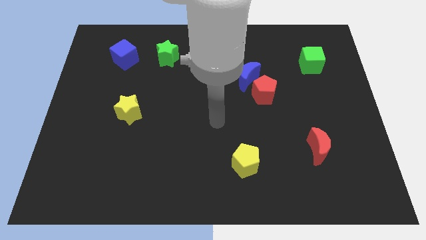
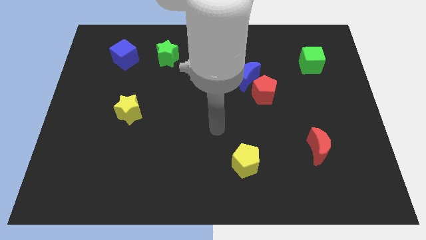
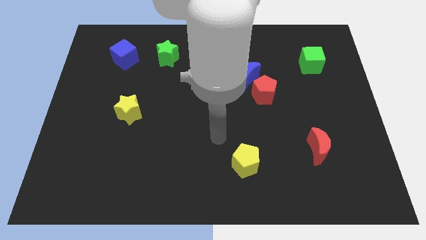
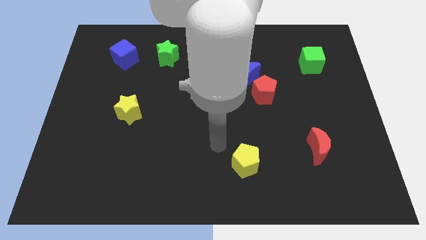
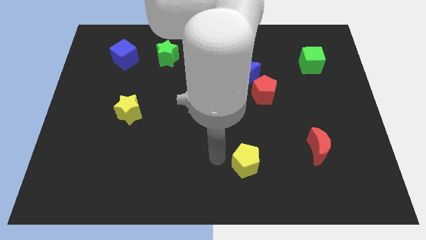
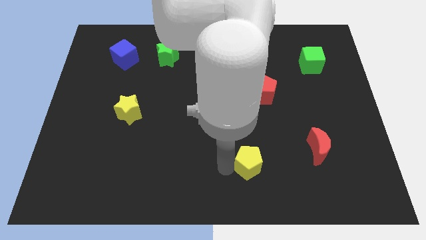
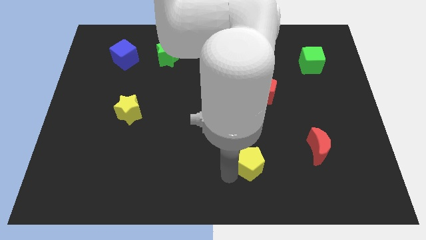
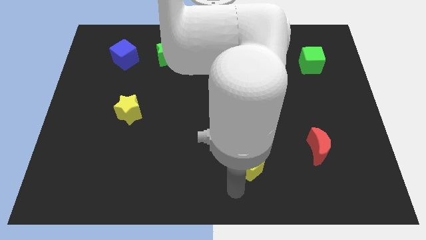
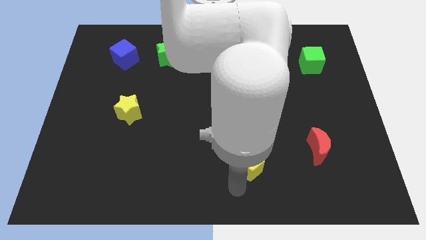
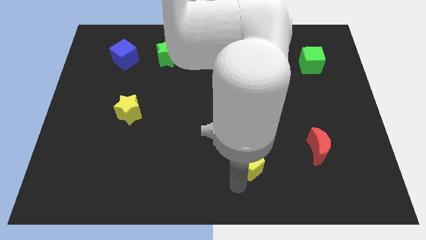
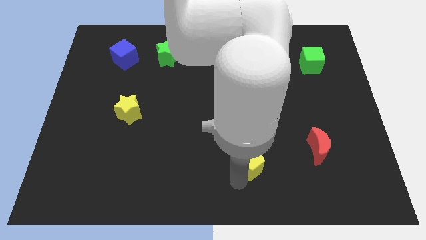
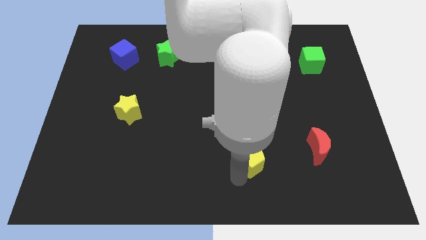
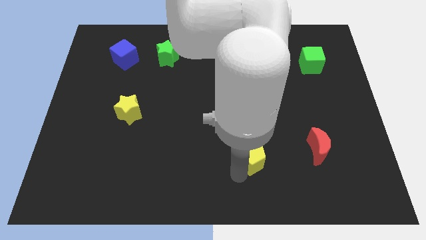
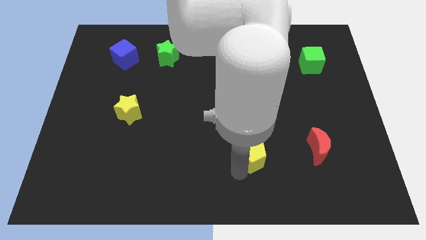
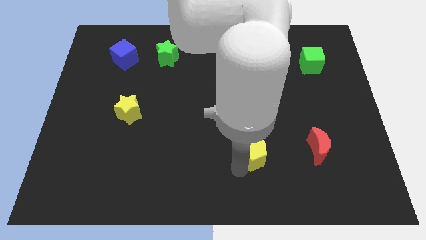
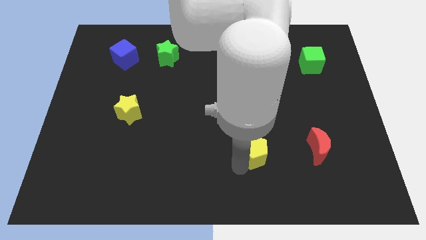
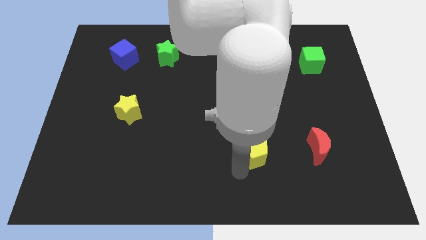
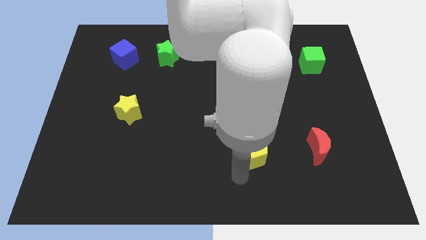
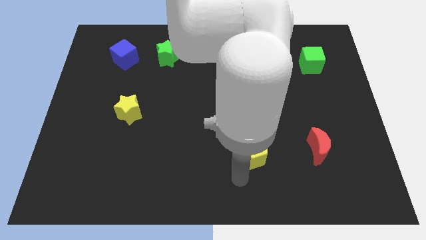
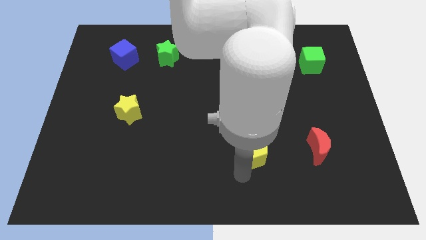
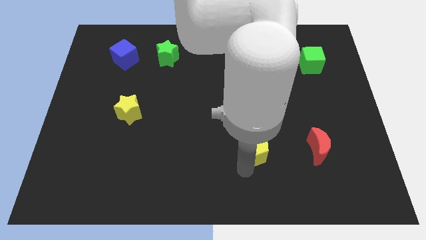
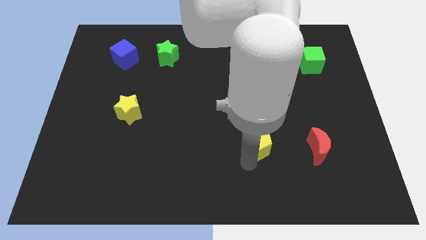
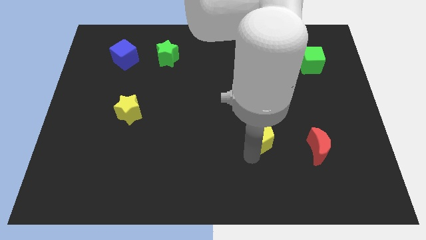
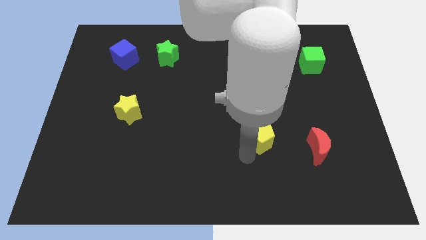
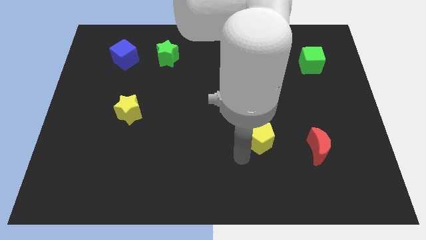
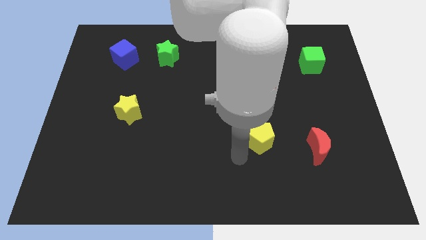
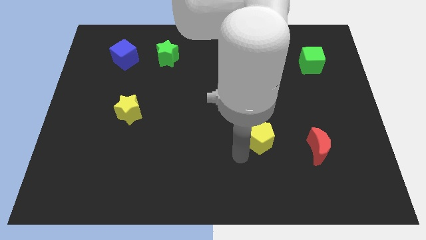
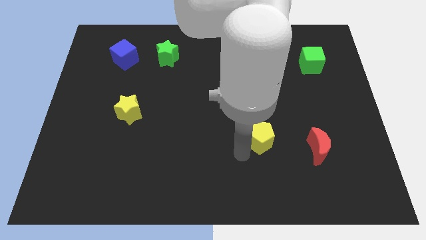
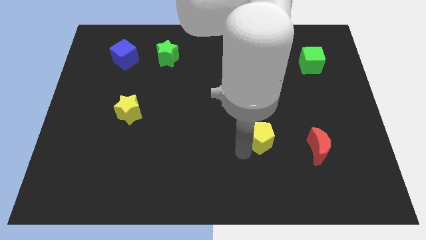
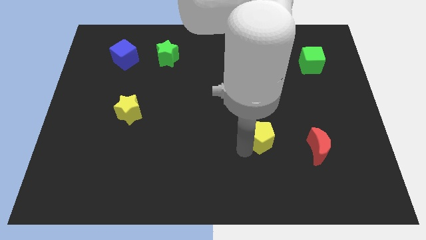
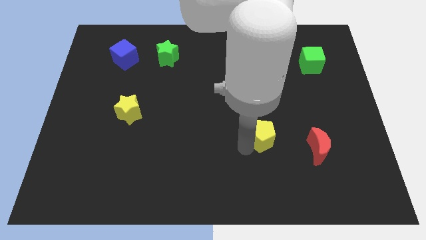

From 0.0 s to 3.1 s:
slide the yellow pentagon a bit diagonally upwards and right

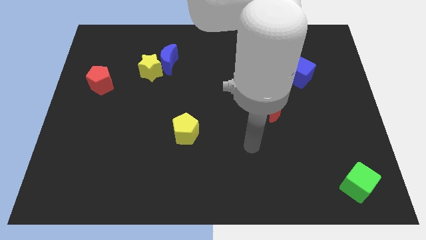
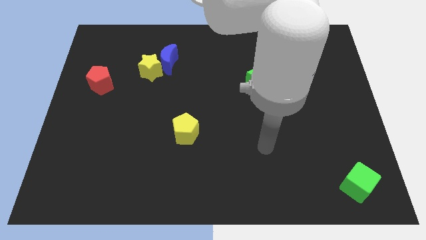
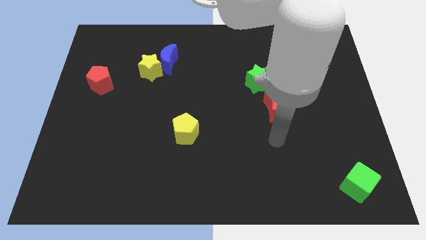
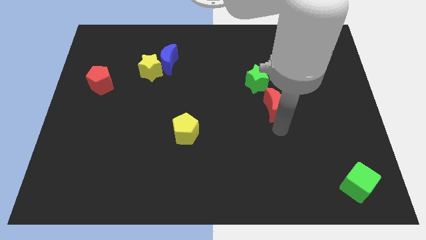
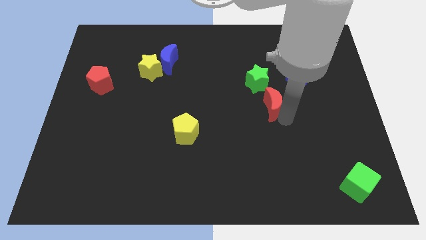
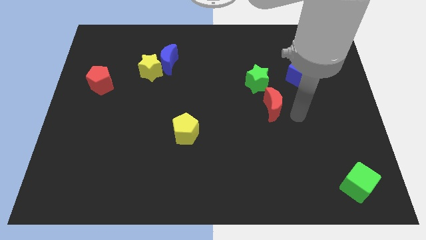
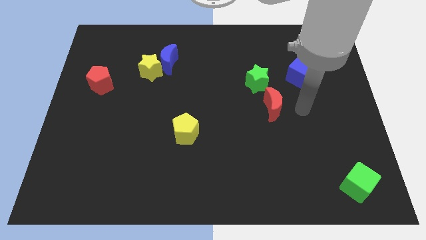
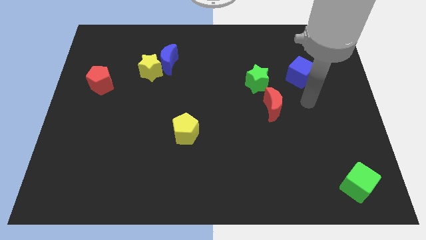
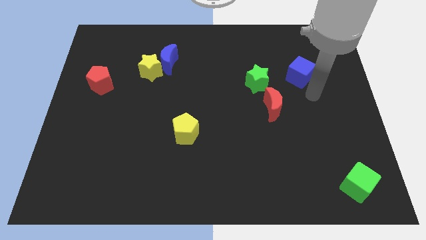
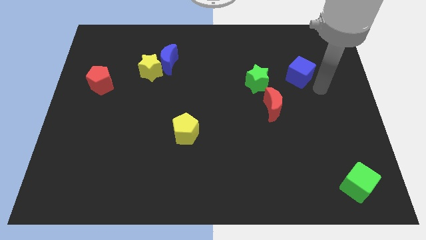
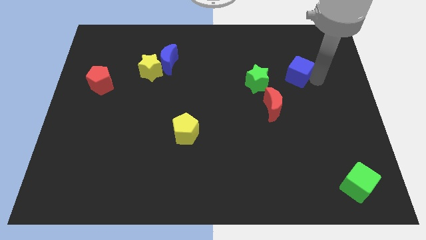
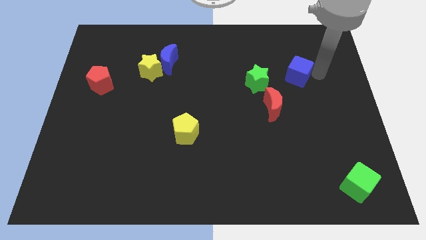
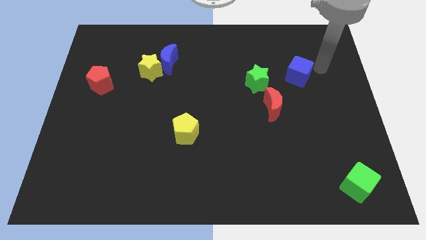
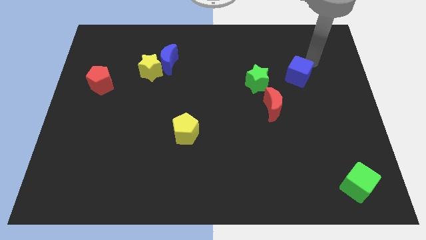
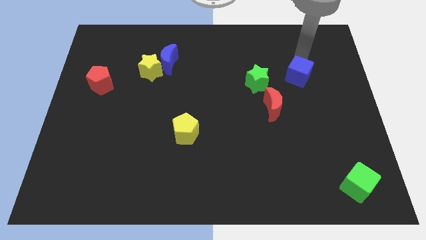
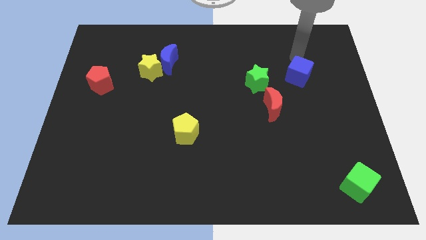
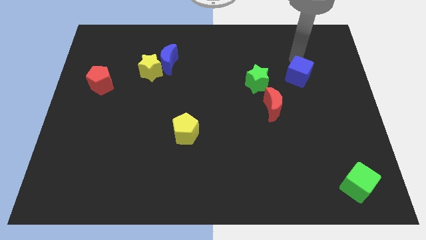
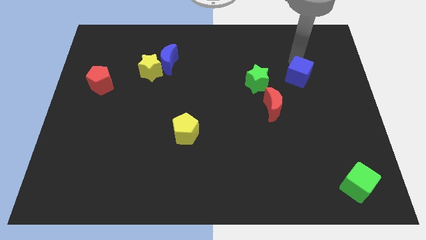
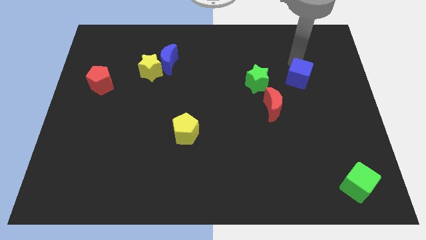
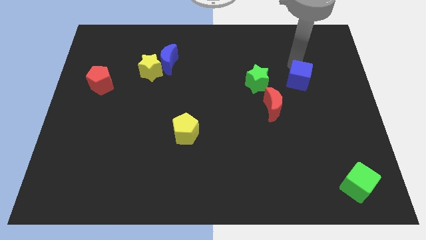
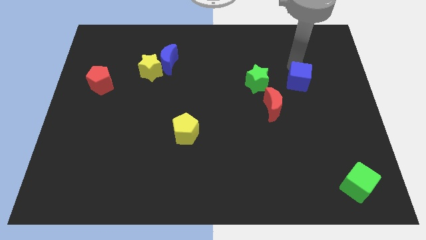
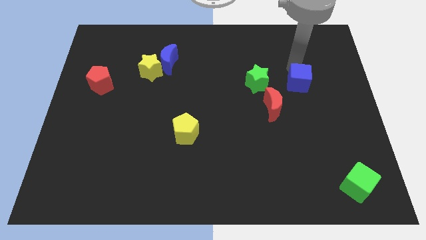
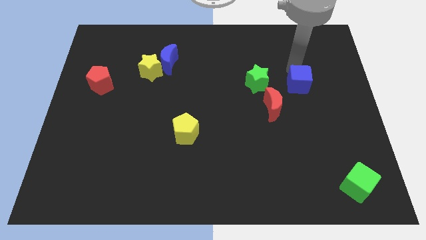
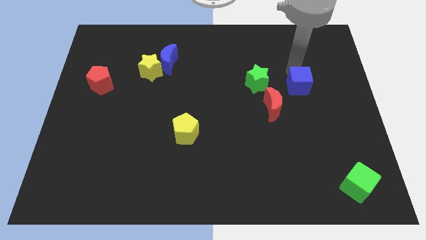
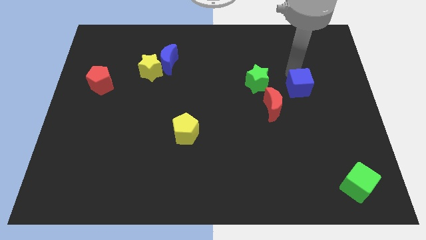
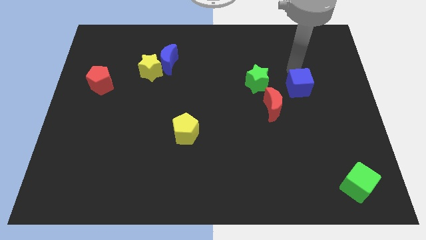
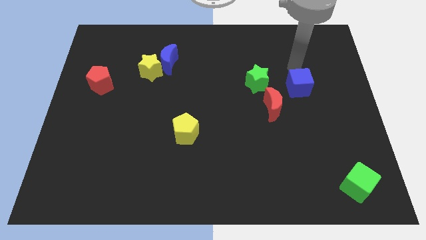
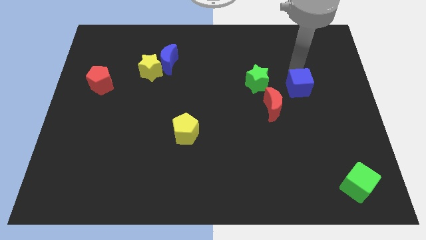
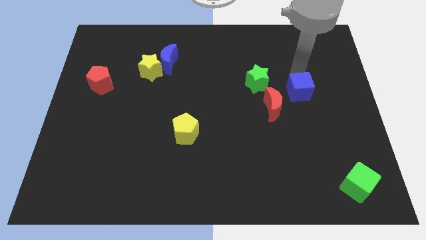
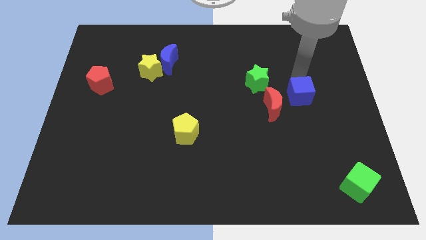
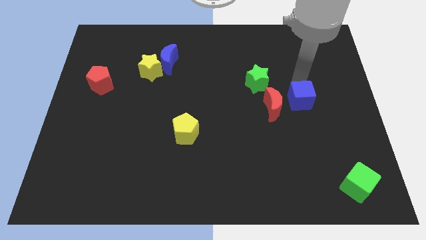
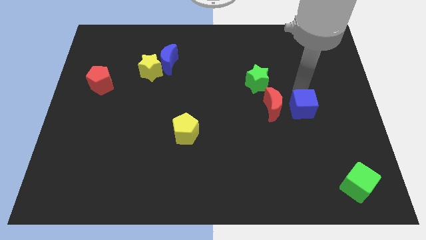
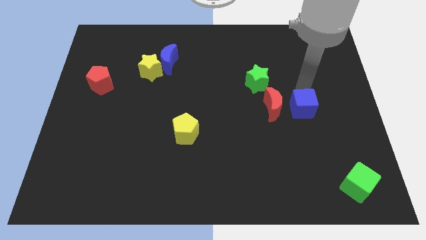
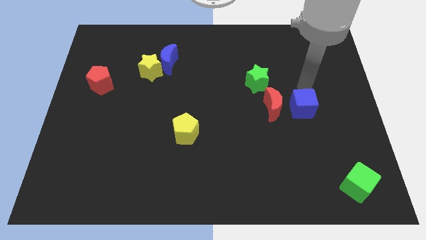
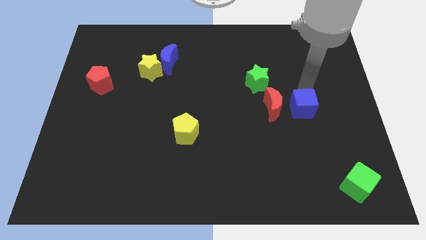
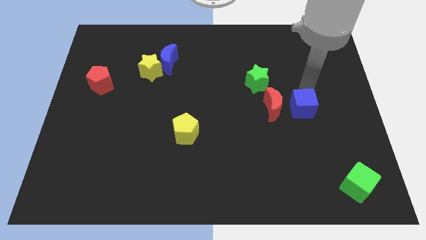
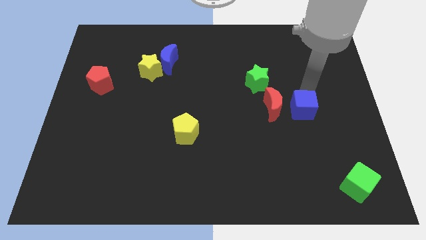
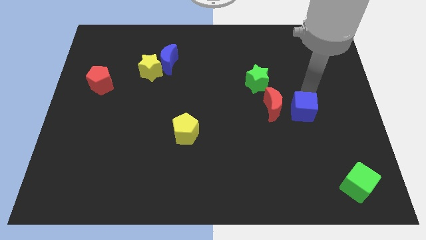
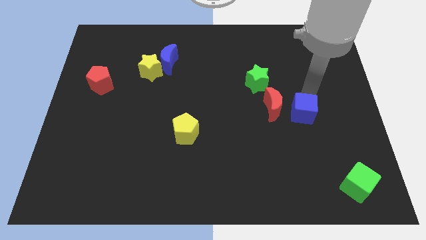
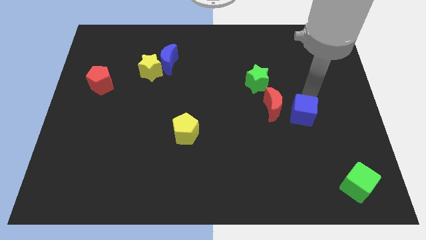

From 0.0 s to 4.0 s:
slide the blue cube down and then to the left slightly

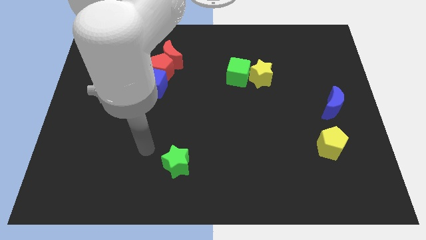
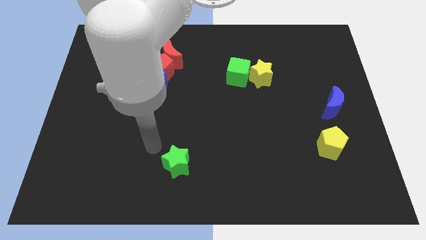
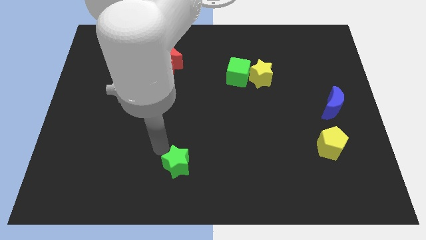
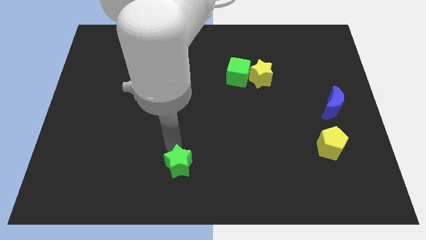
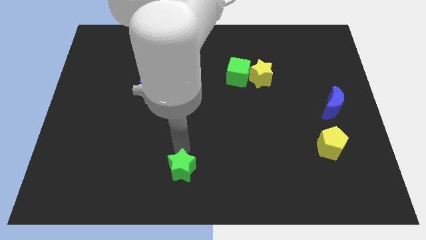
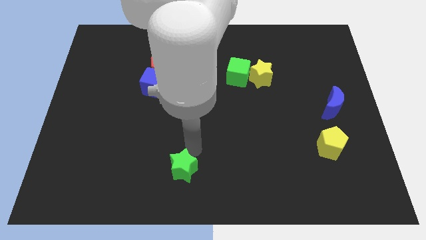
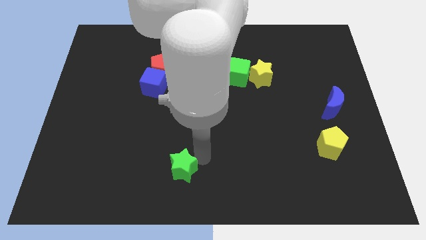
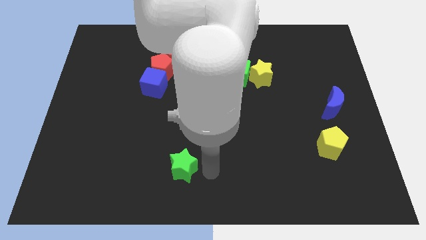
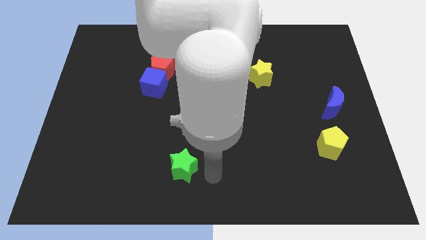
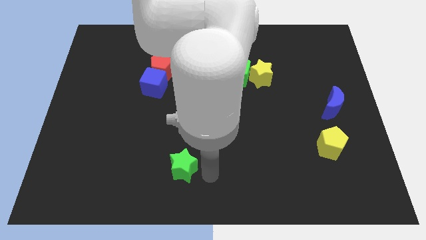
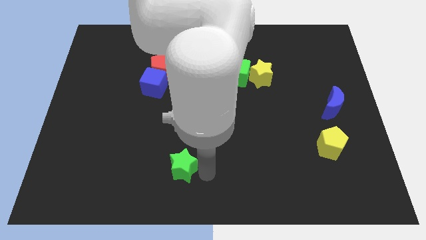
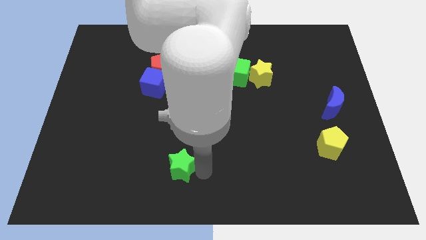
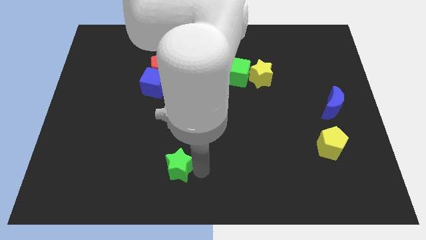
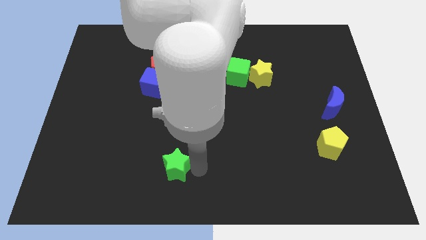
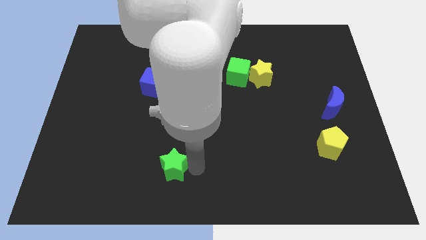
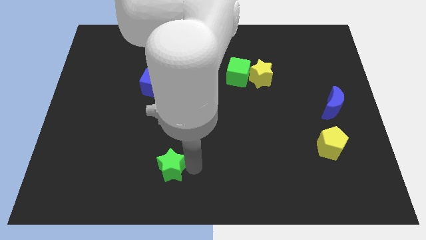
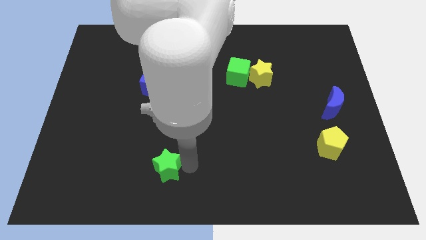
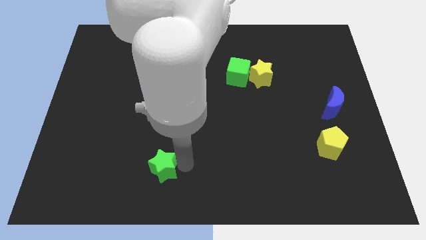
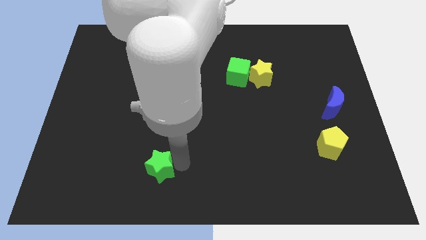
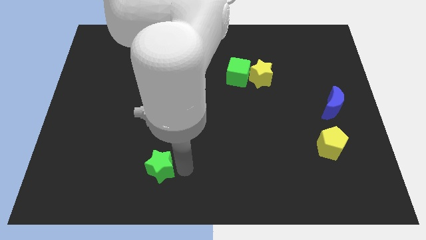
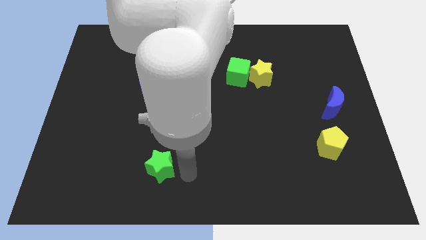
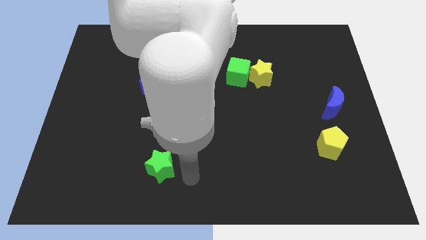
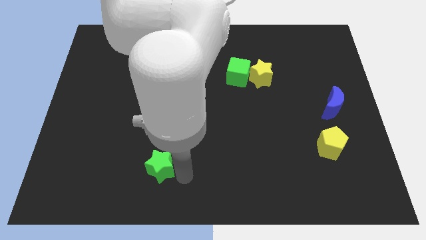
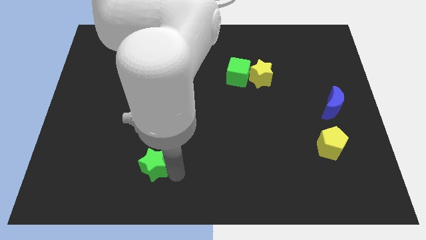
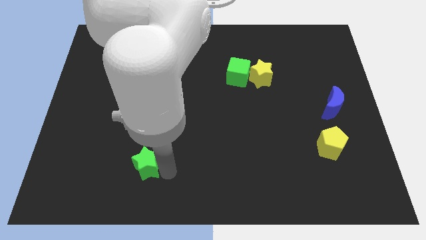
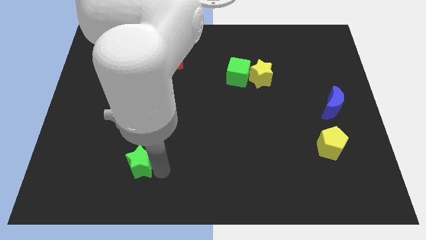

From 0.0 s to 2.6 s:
push the green star slightly to the left
